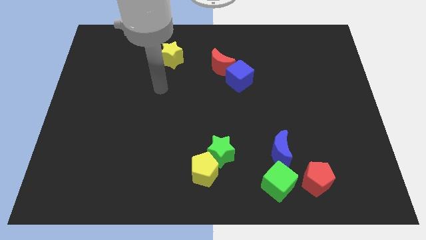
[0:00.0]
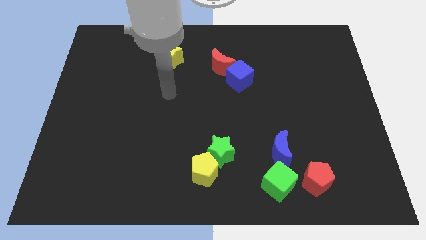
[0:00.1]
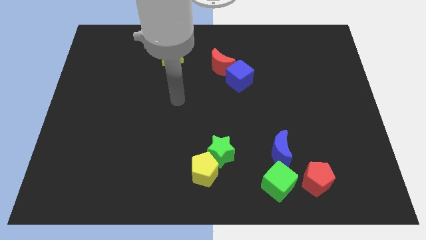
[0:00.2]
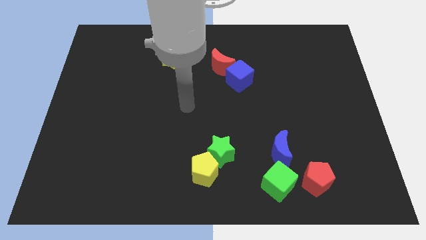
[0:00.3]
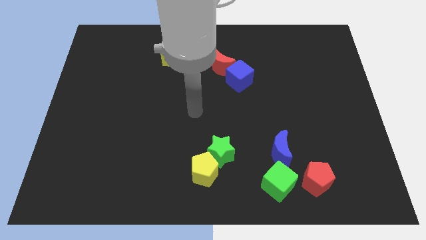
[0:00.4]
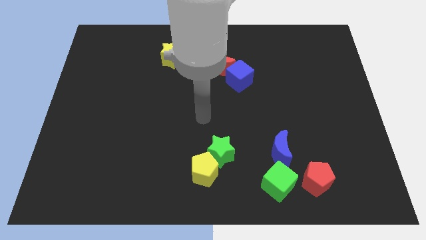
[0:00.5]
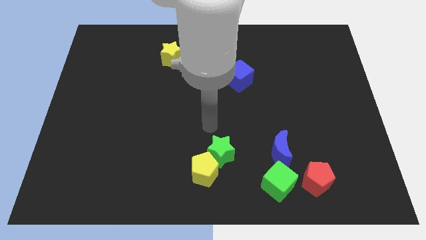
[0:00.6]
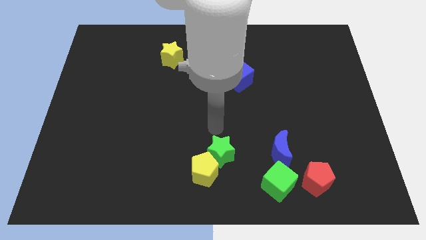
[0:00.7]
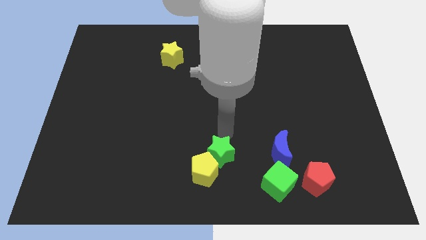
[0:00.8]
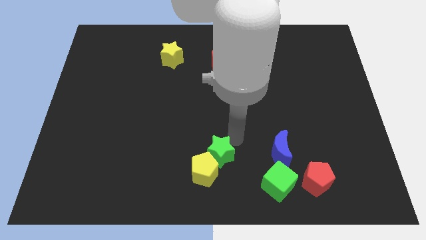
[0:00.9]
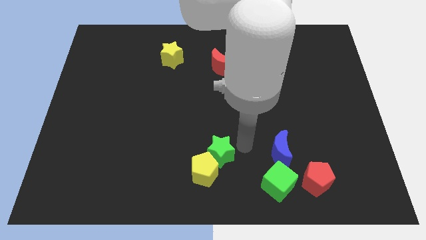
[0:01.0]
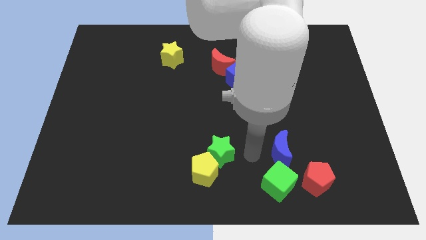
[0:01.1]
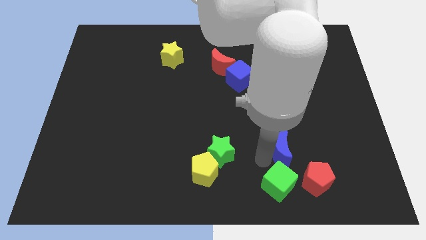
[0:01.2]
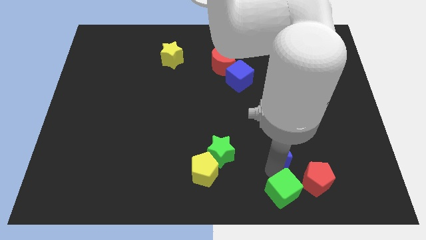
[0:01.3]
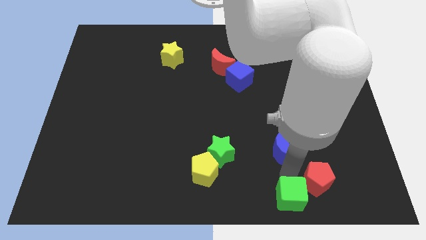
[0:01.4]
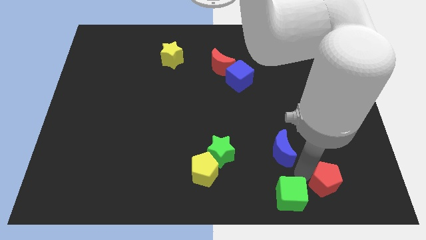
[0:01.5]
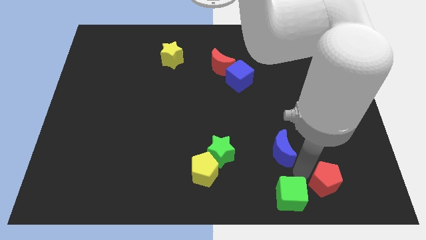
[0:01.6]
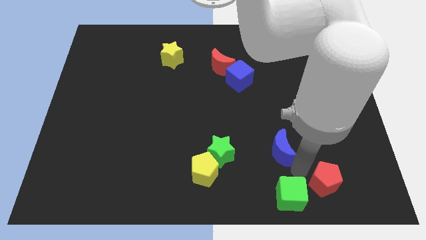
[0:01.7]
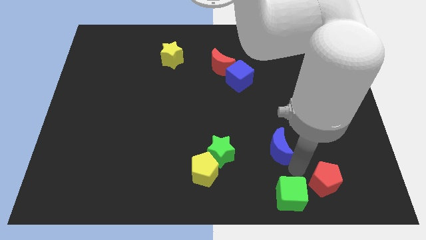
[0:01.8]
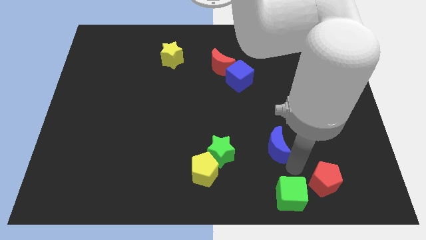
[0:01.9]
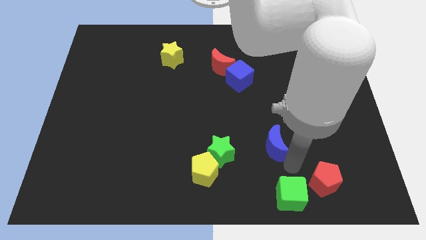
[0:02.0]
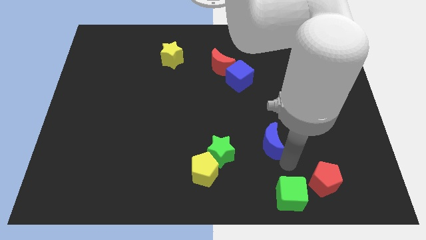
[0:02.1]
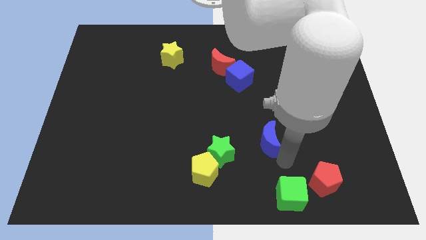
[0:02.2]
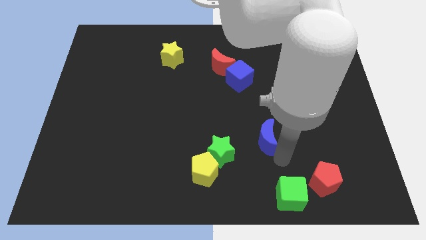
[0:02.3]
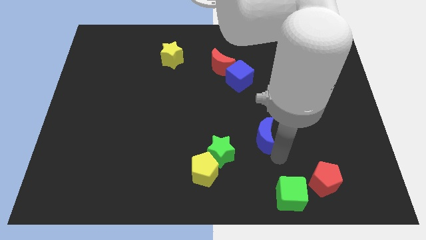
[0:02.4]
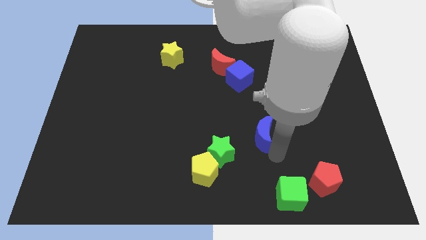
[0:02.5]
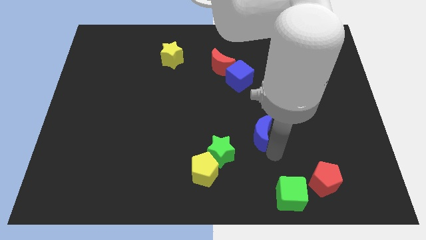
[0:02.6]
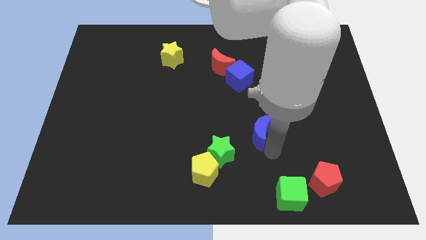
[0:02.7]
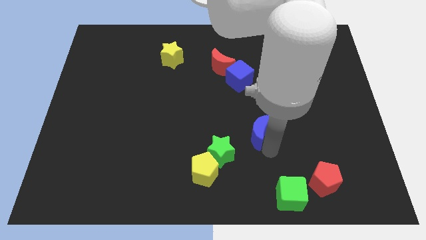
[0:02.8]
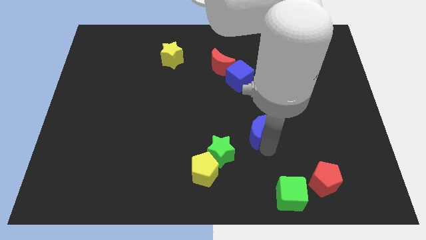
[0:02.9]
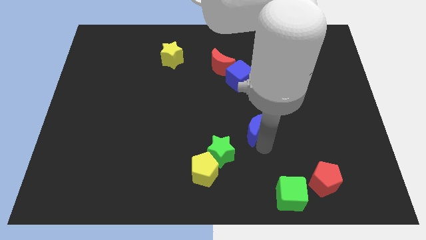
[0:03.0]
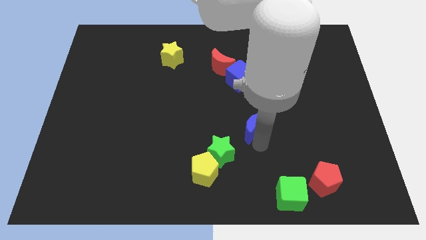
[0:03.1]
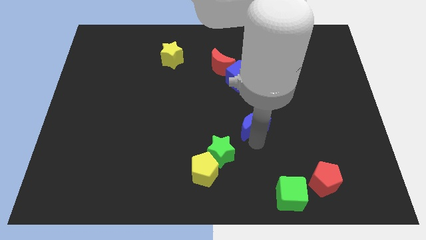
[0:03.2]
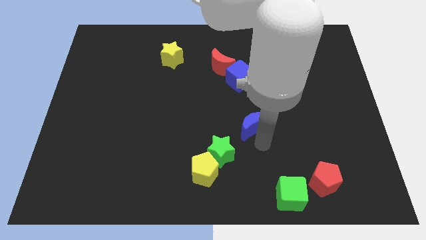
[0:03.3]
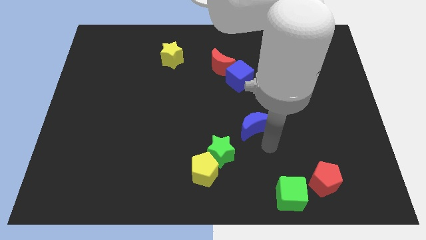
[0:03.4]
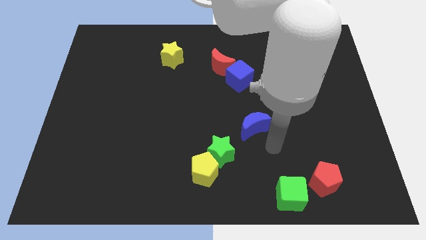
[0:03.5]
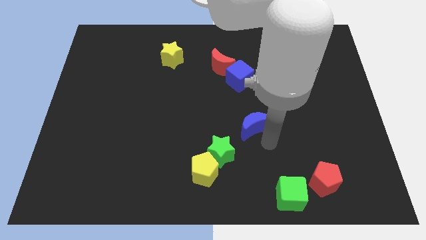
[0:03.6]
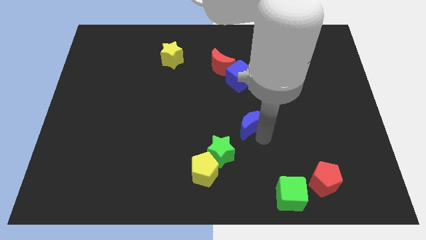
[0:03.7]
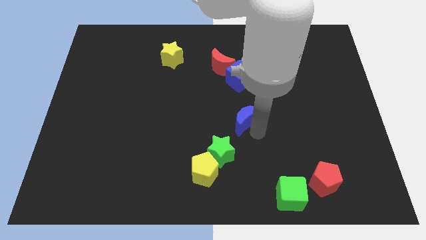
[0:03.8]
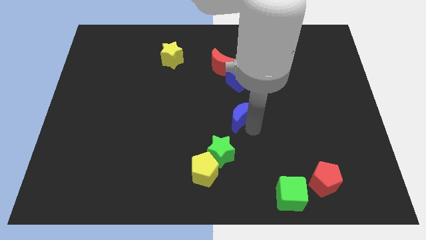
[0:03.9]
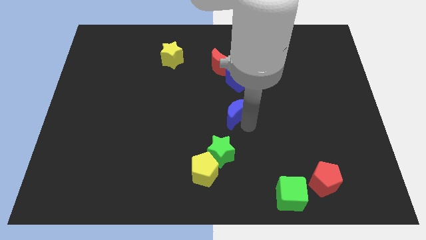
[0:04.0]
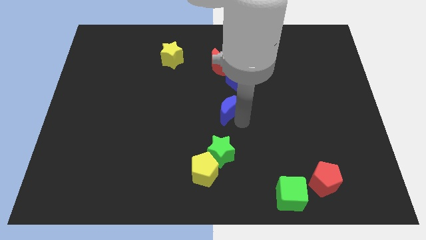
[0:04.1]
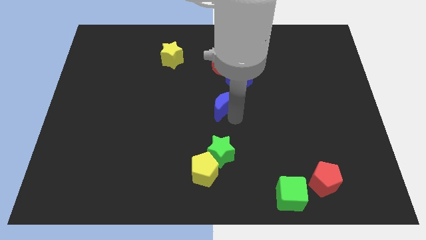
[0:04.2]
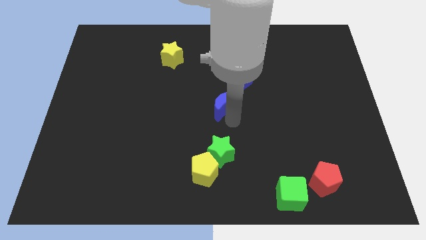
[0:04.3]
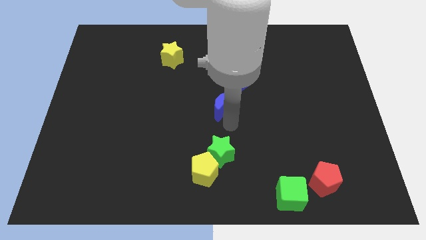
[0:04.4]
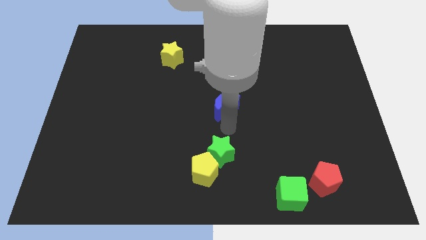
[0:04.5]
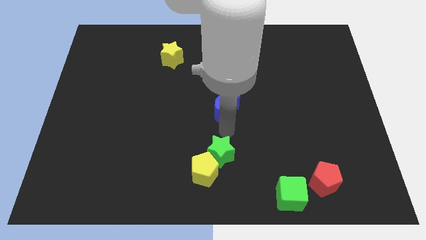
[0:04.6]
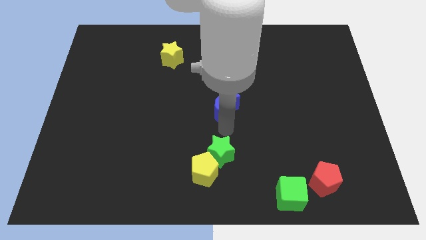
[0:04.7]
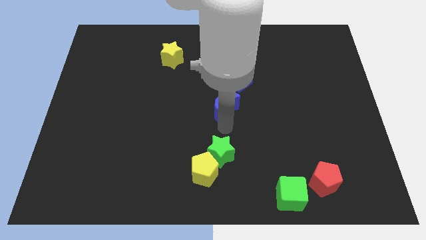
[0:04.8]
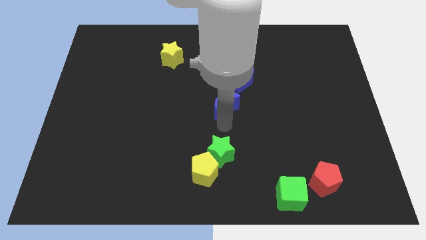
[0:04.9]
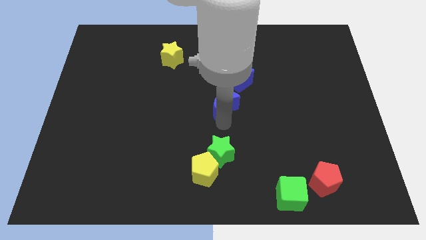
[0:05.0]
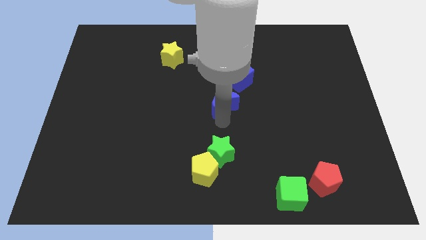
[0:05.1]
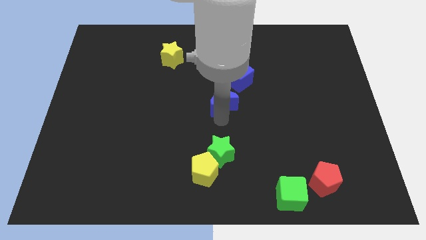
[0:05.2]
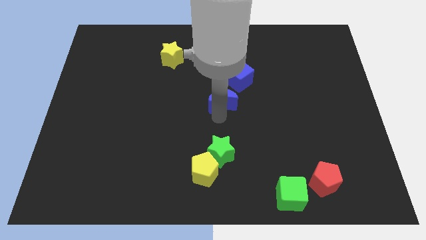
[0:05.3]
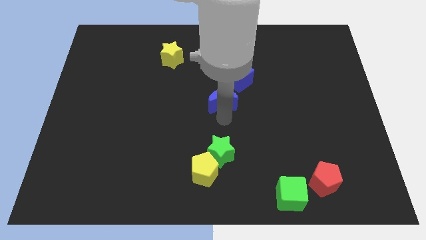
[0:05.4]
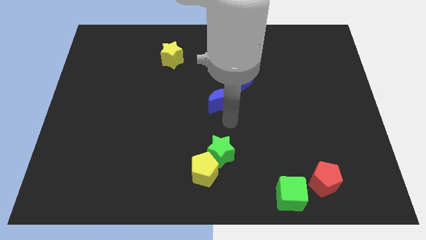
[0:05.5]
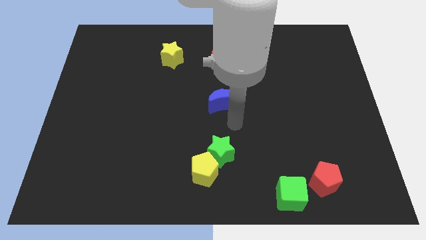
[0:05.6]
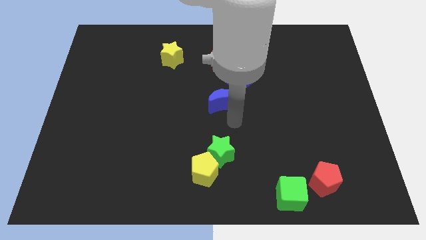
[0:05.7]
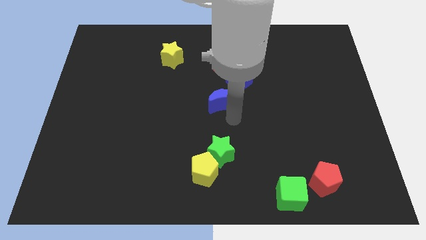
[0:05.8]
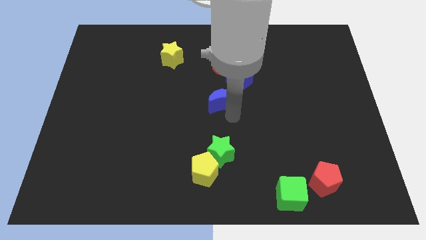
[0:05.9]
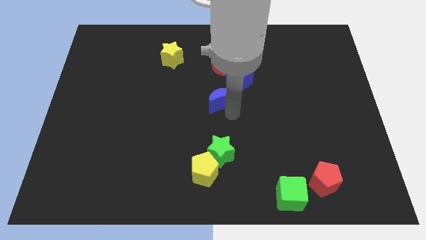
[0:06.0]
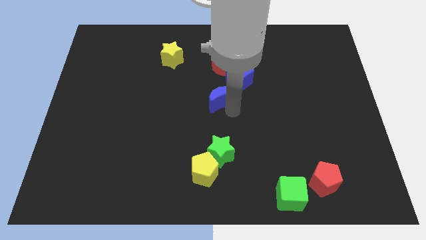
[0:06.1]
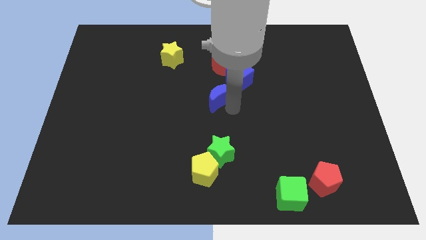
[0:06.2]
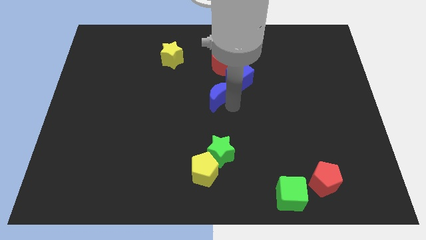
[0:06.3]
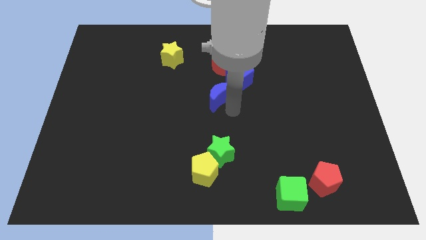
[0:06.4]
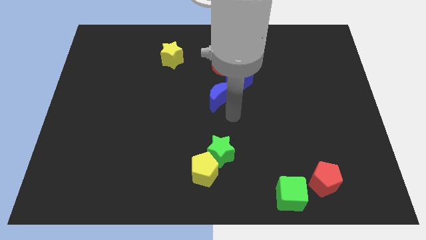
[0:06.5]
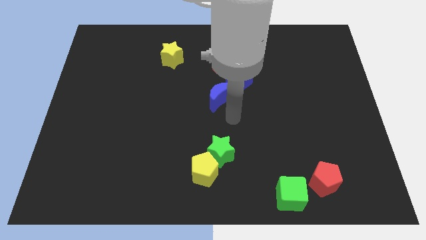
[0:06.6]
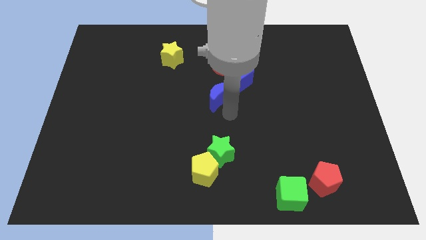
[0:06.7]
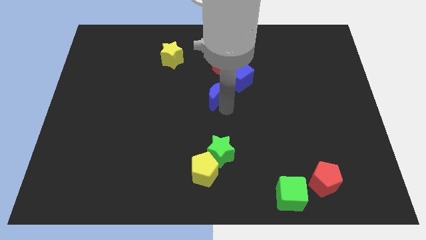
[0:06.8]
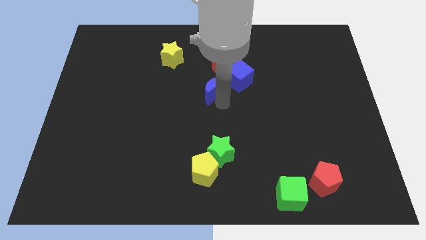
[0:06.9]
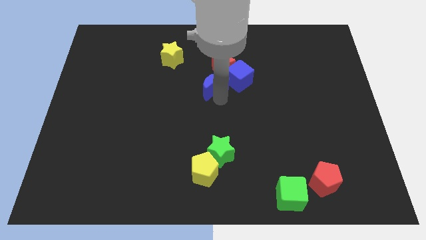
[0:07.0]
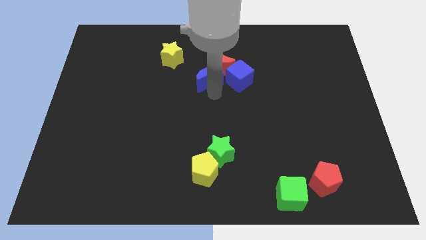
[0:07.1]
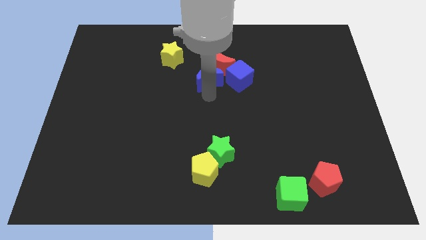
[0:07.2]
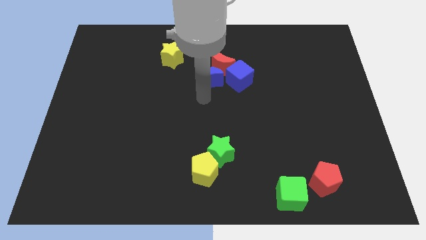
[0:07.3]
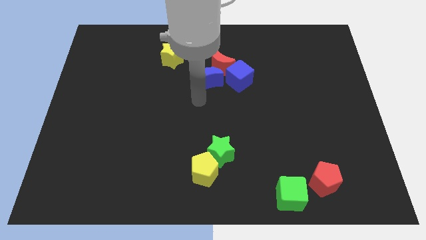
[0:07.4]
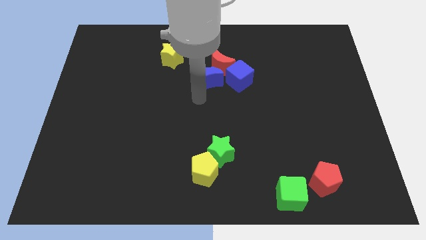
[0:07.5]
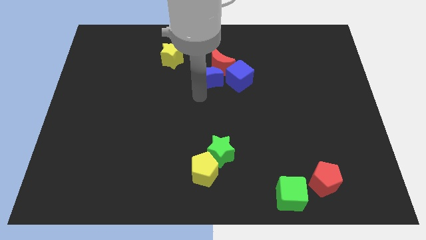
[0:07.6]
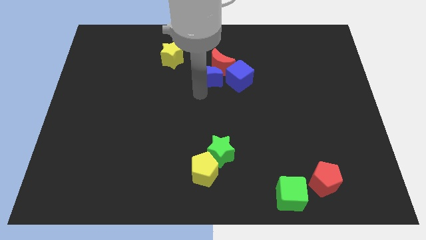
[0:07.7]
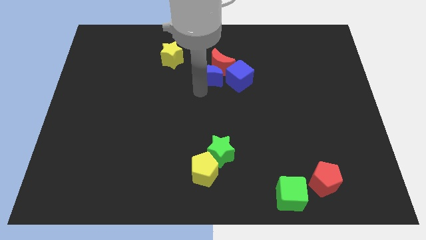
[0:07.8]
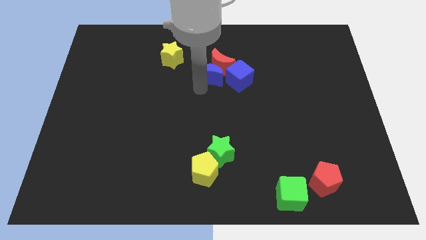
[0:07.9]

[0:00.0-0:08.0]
move the blue moon to the top left of the blue cube

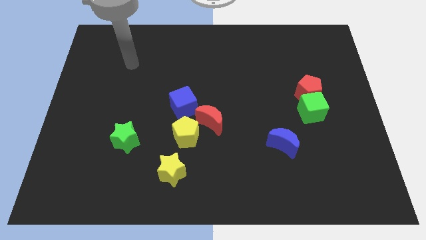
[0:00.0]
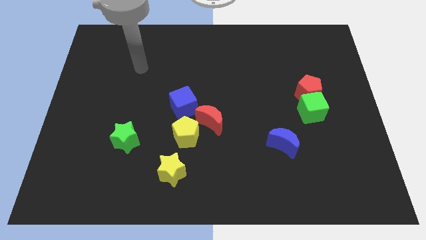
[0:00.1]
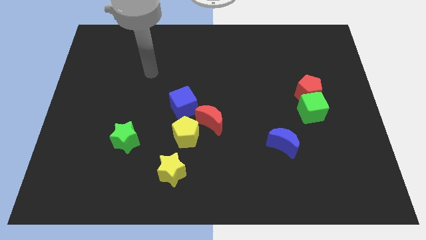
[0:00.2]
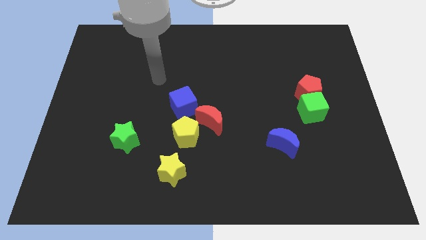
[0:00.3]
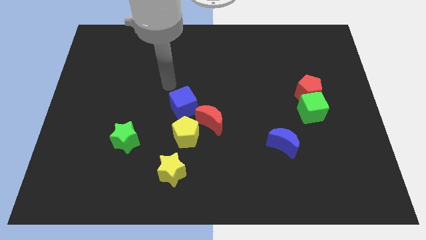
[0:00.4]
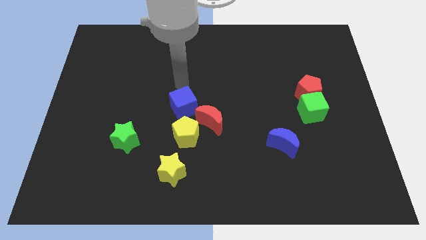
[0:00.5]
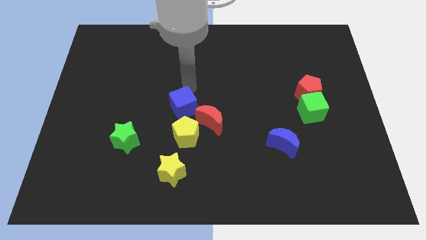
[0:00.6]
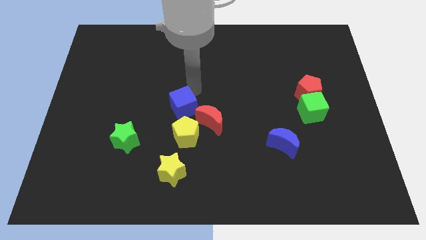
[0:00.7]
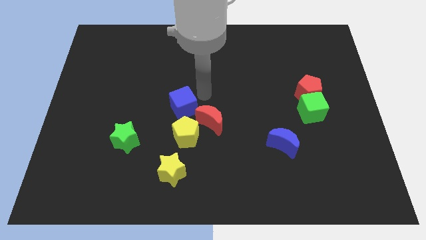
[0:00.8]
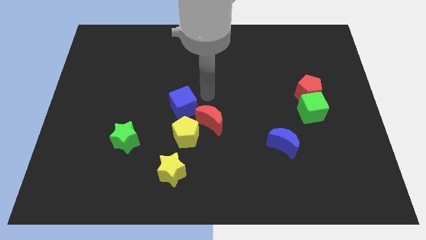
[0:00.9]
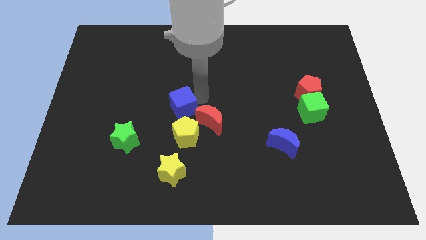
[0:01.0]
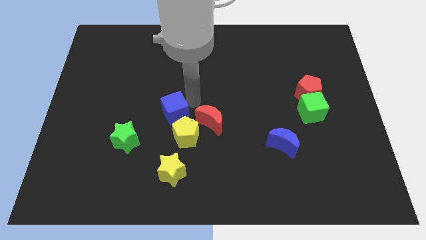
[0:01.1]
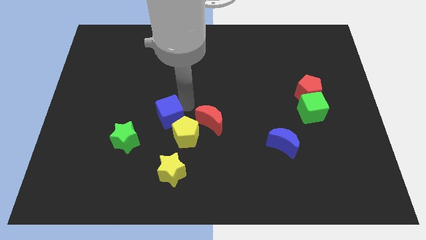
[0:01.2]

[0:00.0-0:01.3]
slide the blue cube diagonally up and to the right of the green star
